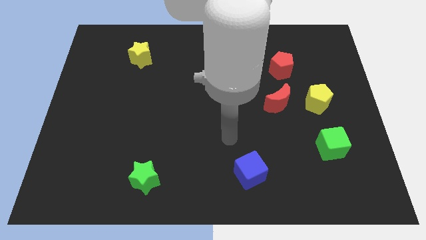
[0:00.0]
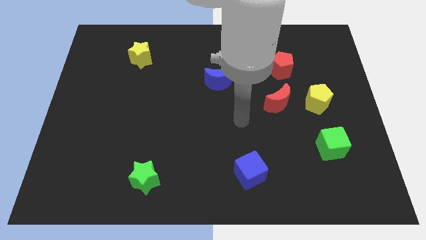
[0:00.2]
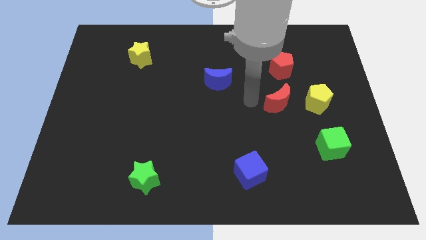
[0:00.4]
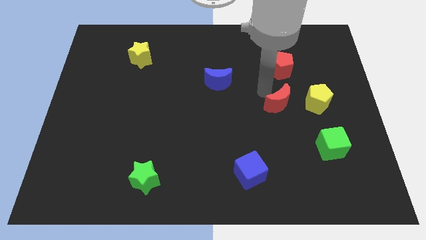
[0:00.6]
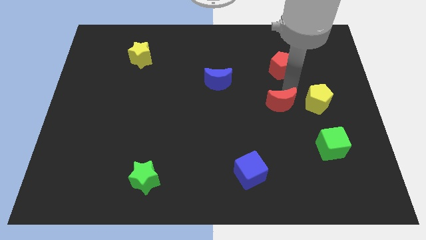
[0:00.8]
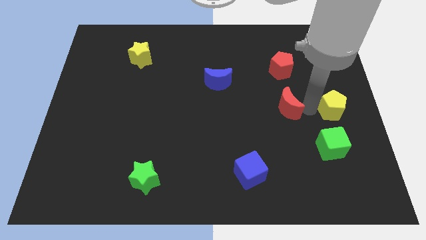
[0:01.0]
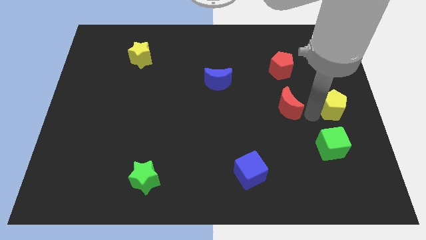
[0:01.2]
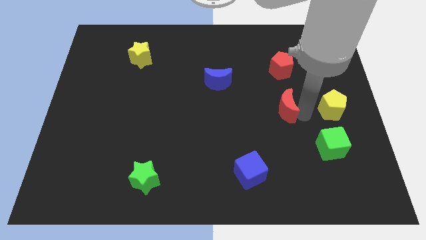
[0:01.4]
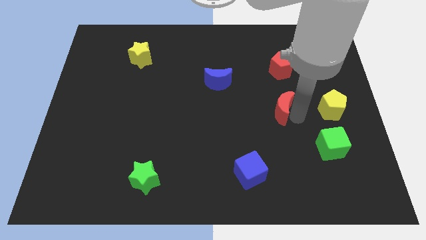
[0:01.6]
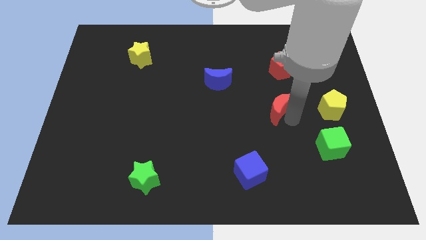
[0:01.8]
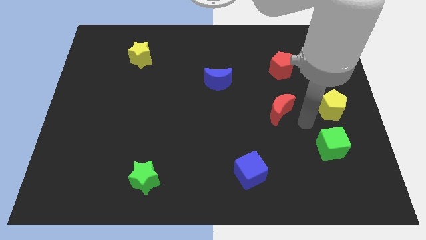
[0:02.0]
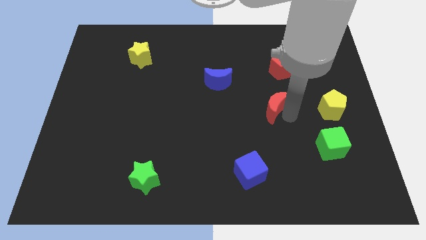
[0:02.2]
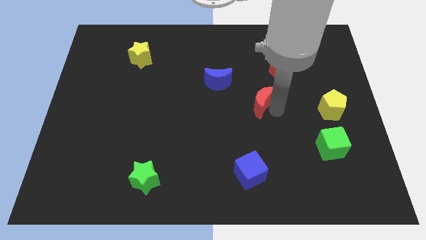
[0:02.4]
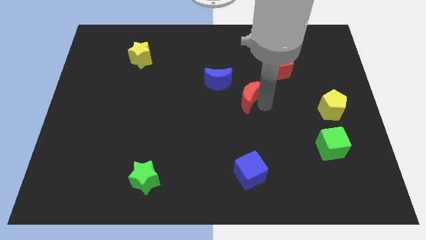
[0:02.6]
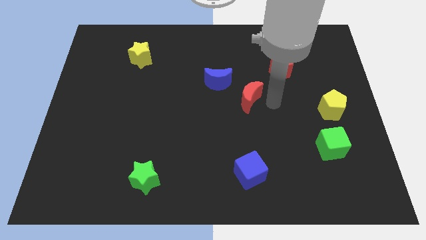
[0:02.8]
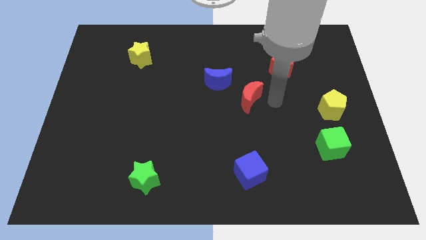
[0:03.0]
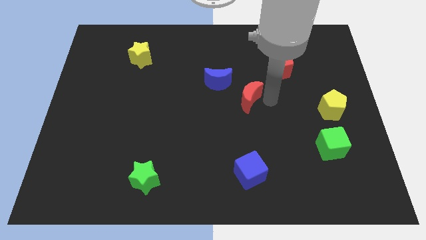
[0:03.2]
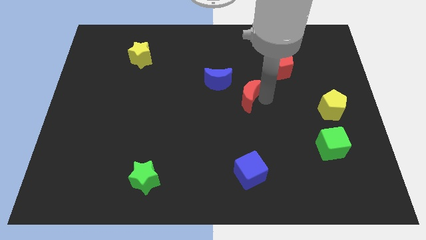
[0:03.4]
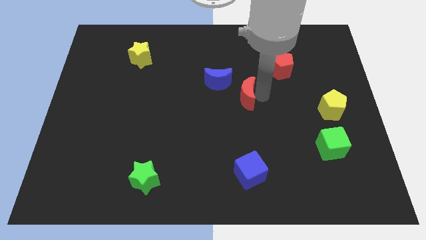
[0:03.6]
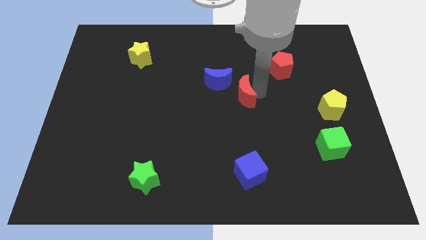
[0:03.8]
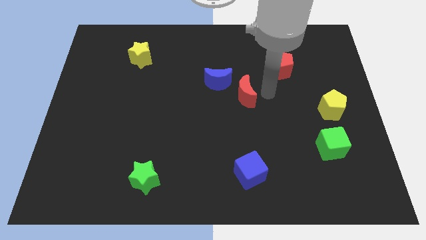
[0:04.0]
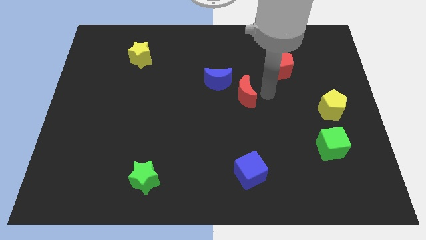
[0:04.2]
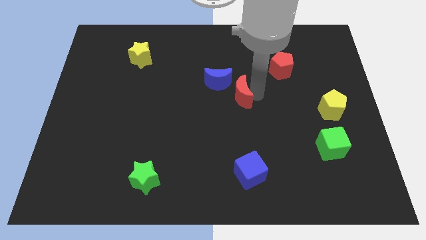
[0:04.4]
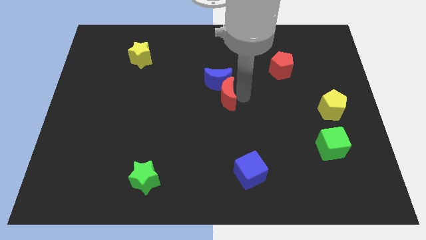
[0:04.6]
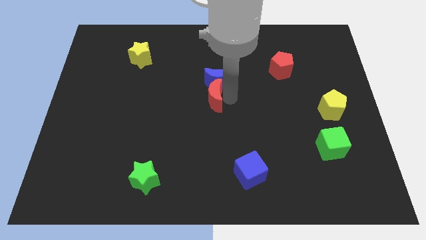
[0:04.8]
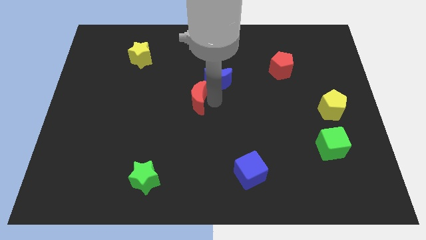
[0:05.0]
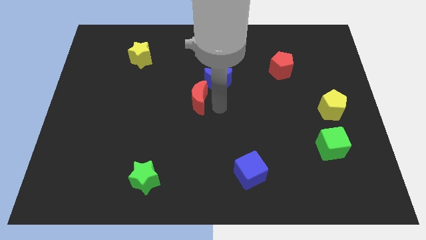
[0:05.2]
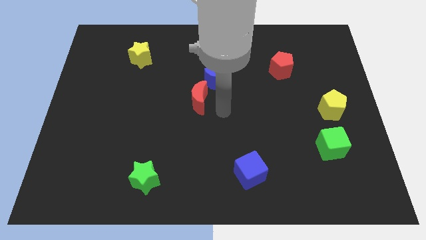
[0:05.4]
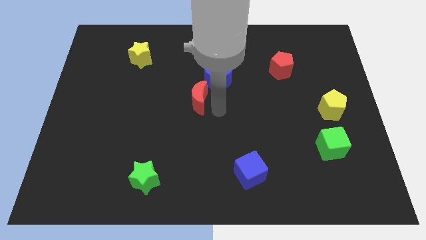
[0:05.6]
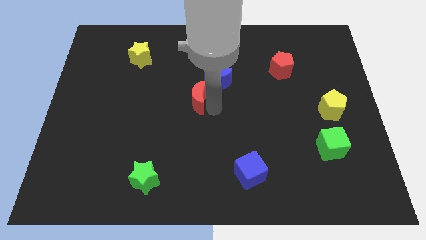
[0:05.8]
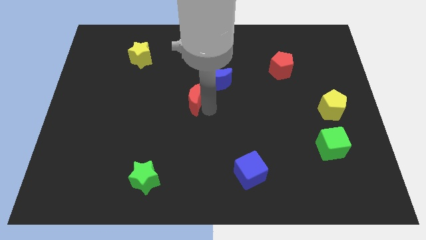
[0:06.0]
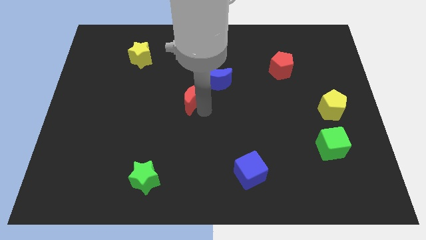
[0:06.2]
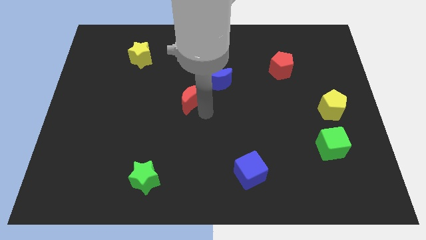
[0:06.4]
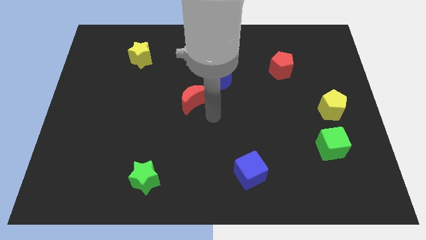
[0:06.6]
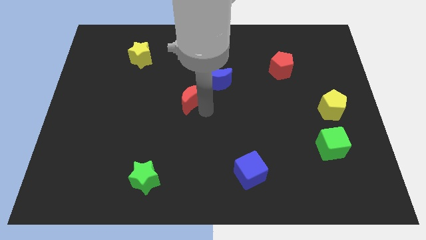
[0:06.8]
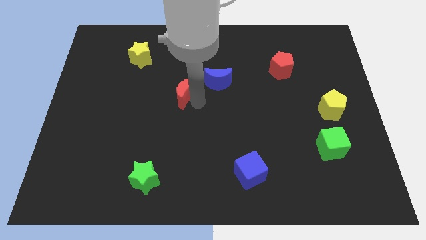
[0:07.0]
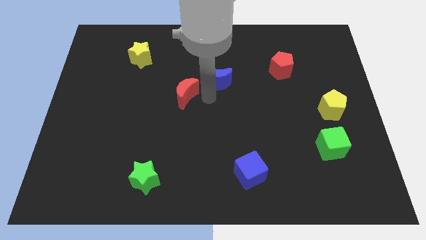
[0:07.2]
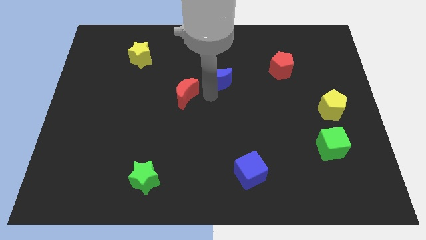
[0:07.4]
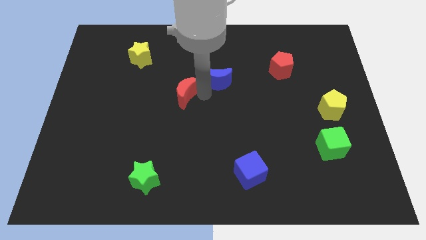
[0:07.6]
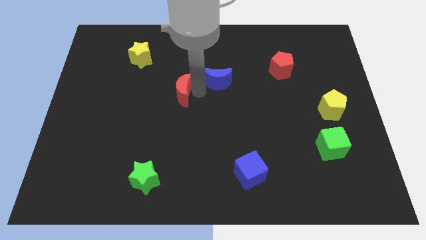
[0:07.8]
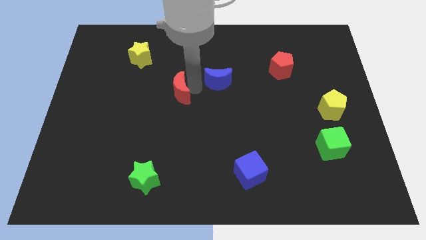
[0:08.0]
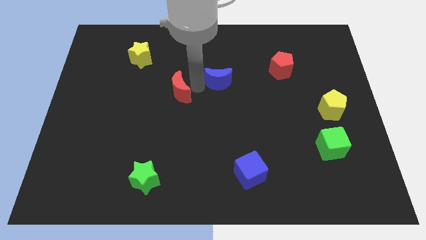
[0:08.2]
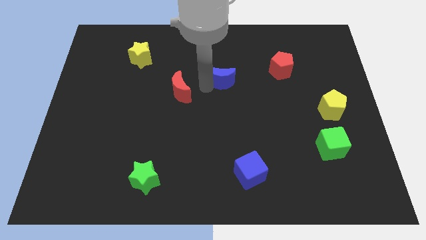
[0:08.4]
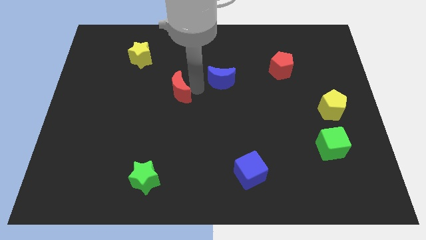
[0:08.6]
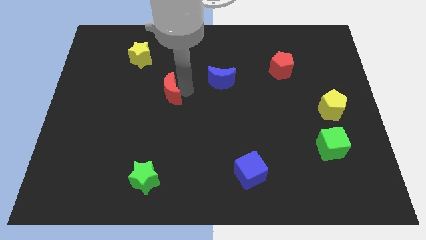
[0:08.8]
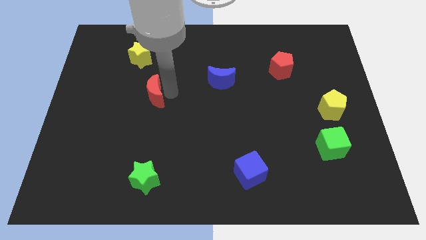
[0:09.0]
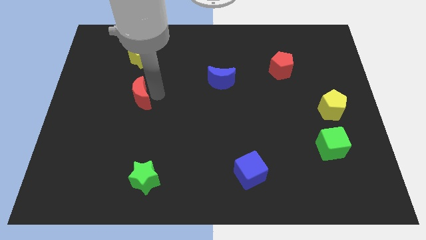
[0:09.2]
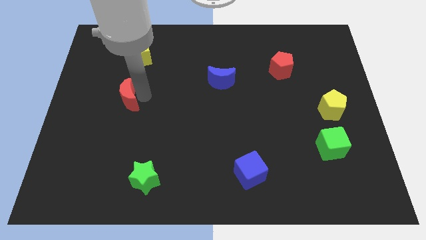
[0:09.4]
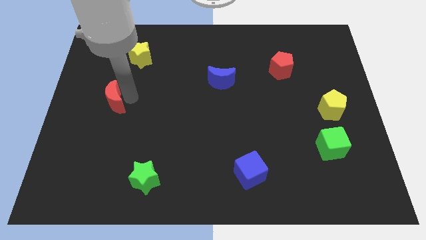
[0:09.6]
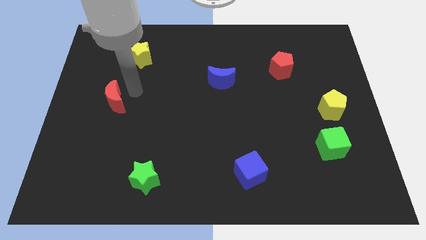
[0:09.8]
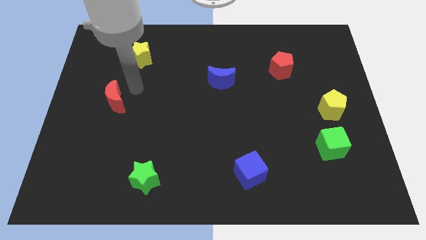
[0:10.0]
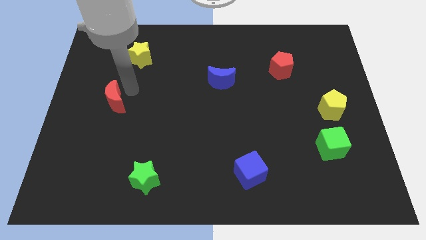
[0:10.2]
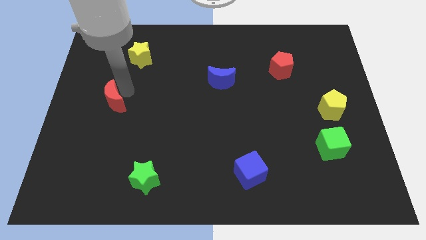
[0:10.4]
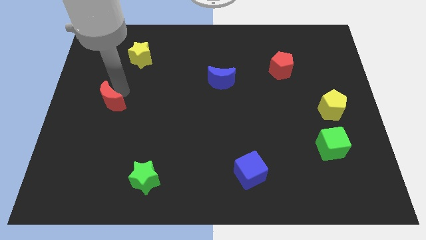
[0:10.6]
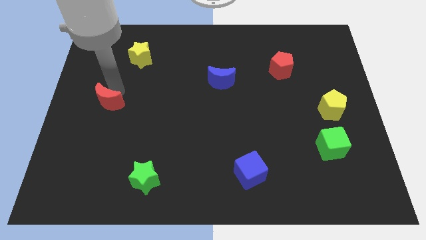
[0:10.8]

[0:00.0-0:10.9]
push the red moon to the left side

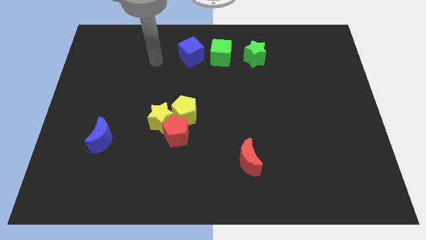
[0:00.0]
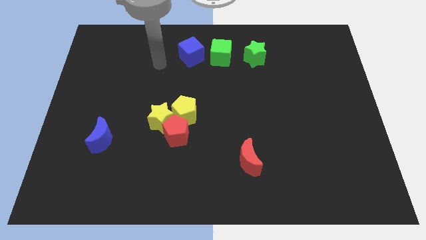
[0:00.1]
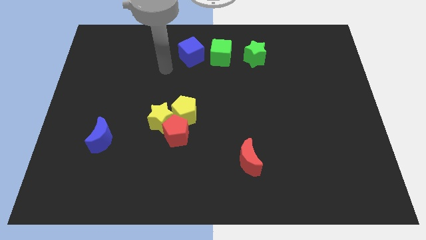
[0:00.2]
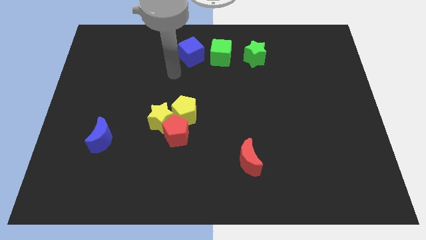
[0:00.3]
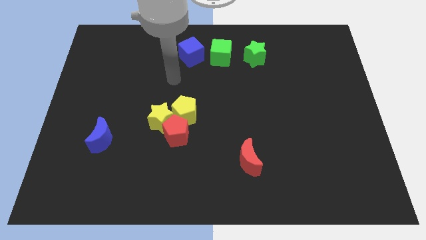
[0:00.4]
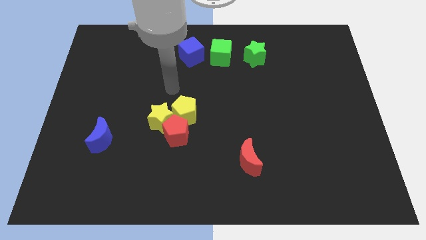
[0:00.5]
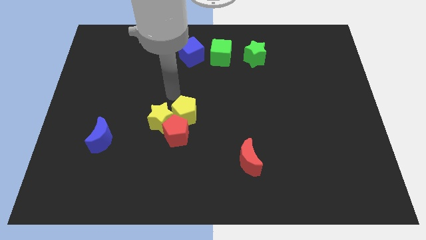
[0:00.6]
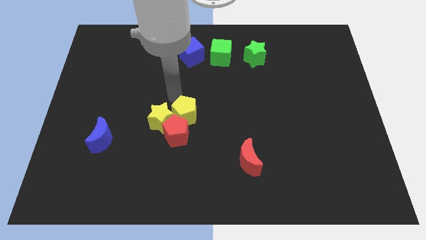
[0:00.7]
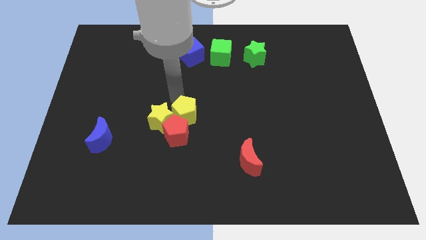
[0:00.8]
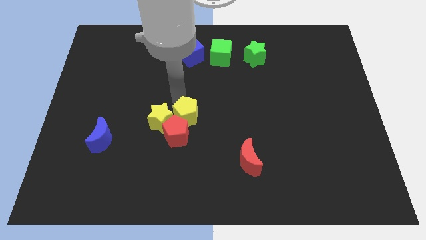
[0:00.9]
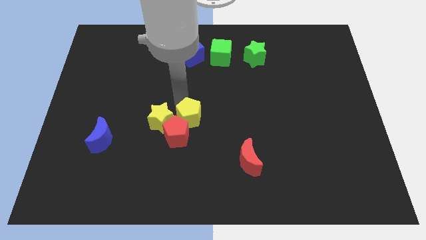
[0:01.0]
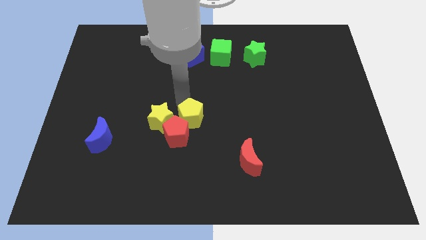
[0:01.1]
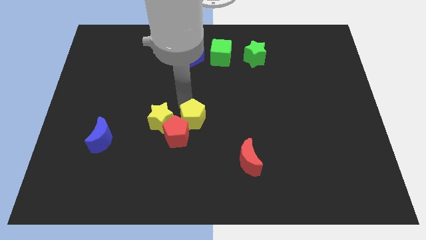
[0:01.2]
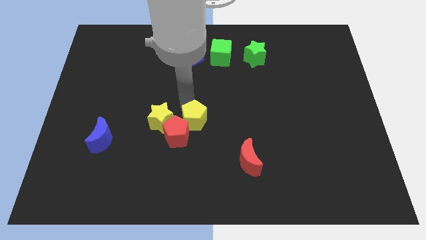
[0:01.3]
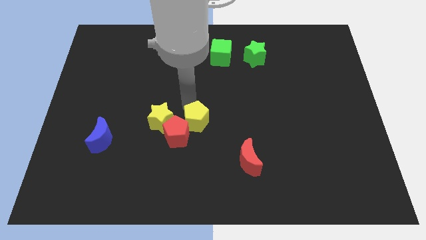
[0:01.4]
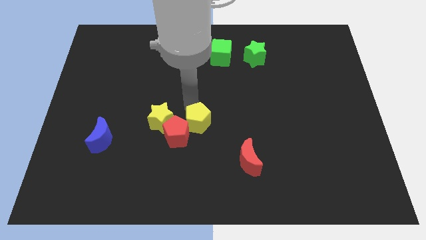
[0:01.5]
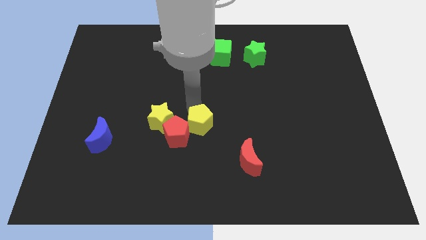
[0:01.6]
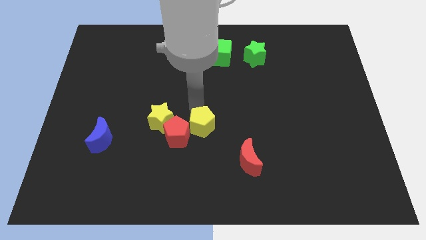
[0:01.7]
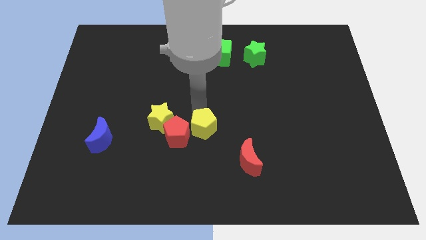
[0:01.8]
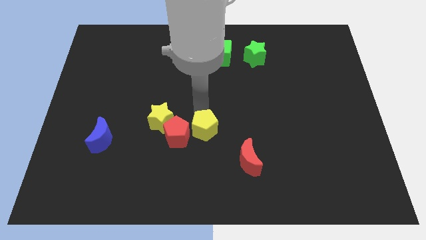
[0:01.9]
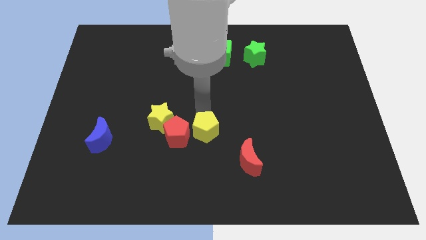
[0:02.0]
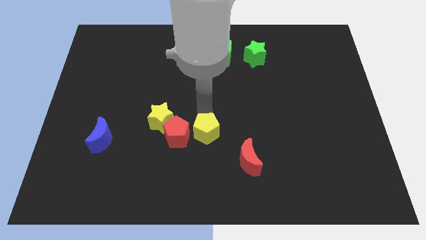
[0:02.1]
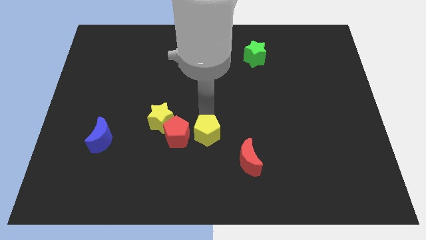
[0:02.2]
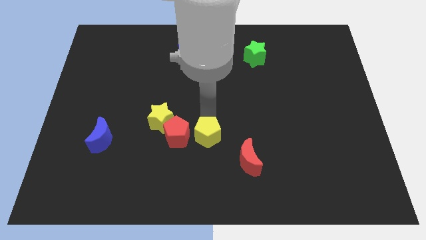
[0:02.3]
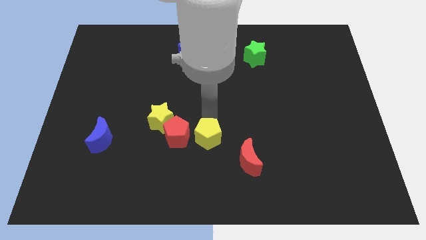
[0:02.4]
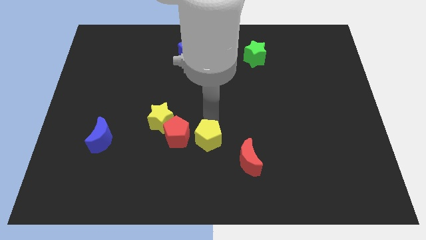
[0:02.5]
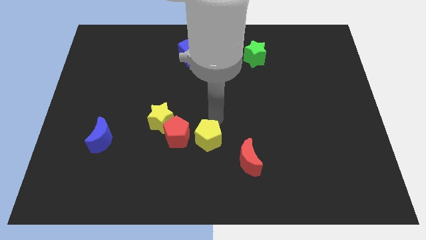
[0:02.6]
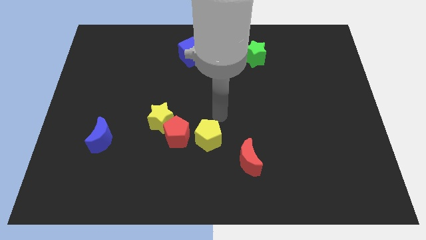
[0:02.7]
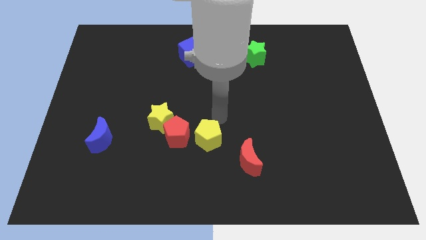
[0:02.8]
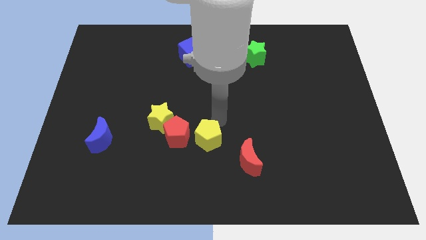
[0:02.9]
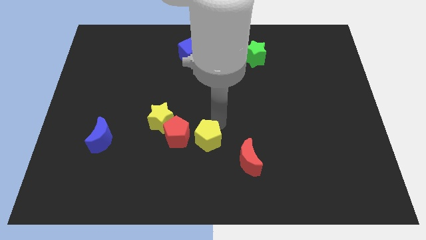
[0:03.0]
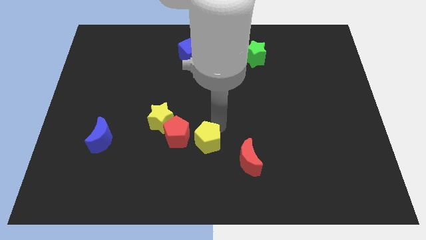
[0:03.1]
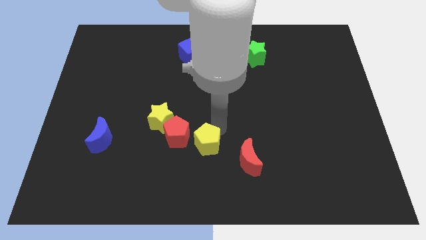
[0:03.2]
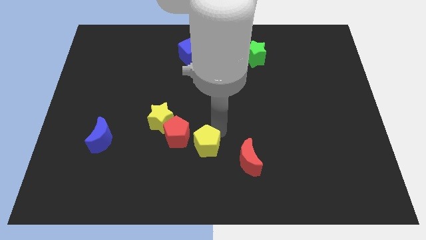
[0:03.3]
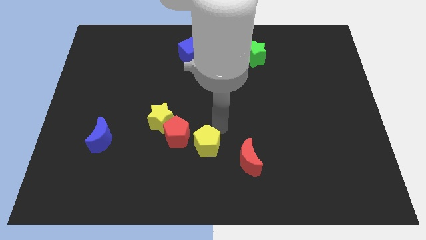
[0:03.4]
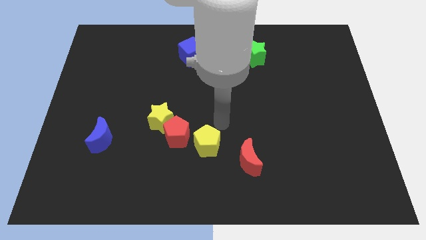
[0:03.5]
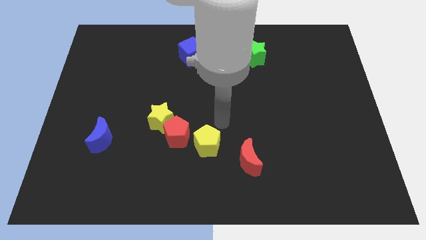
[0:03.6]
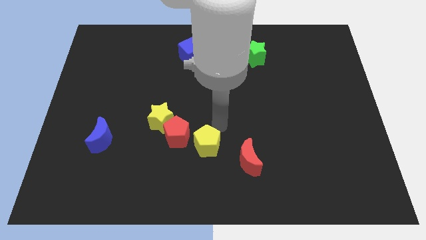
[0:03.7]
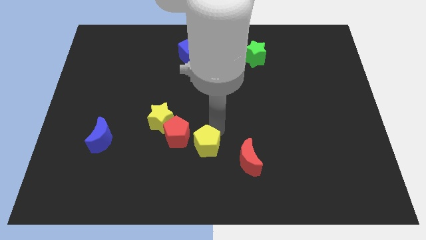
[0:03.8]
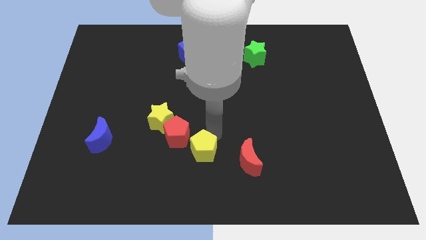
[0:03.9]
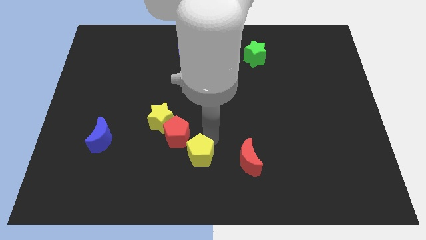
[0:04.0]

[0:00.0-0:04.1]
push the yellow pentagon to the bottom
